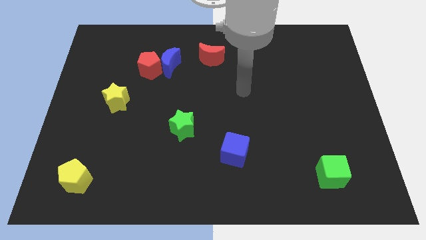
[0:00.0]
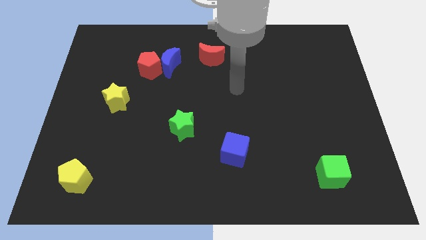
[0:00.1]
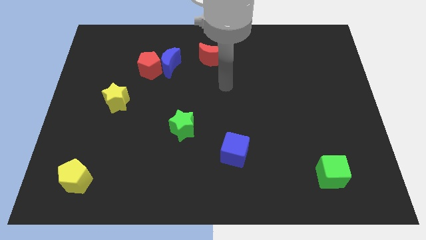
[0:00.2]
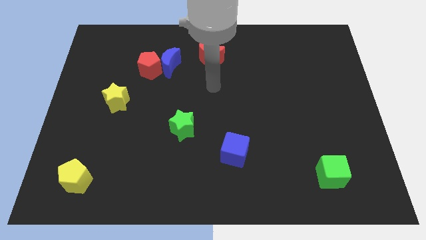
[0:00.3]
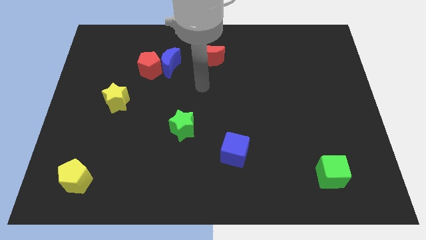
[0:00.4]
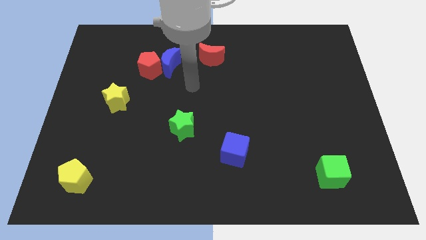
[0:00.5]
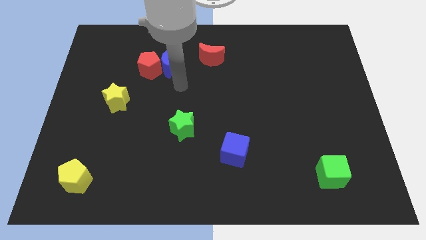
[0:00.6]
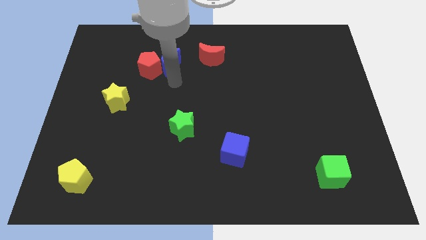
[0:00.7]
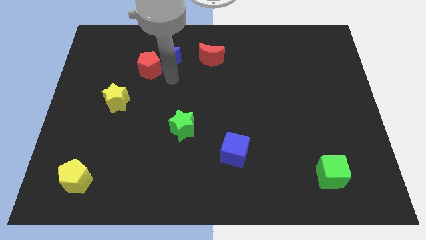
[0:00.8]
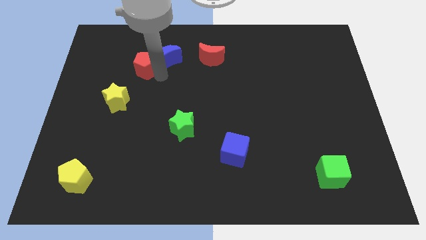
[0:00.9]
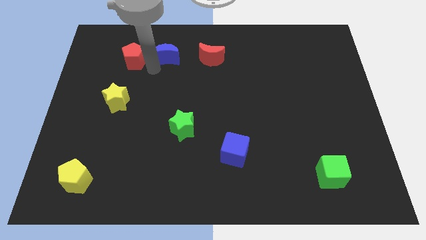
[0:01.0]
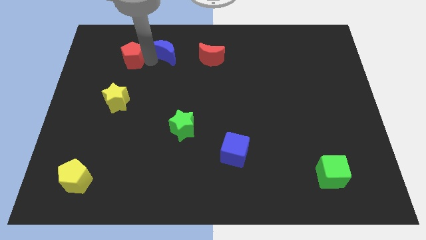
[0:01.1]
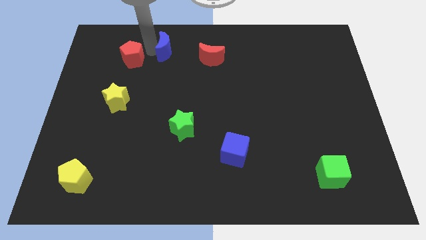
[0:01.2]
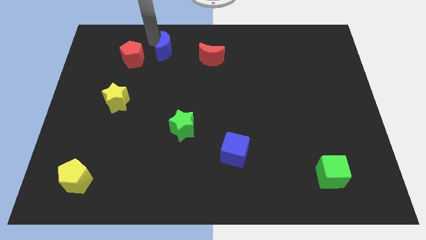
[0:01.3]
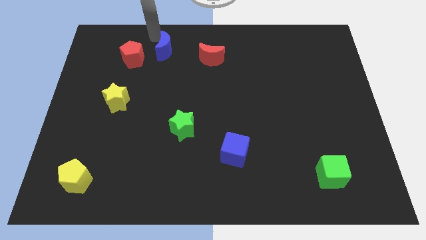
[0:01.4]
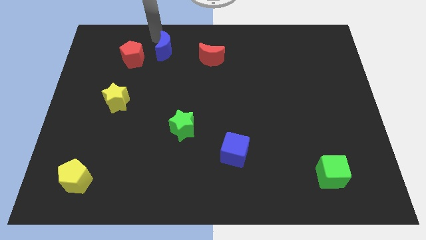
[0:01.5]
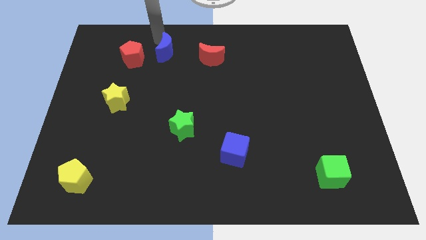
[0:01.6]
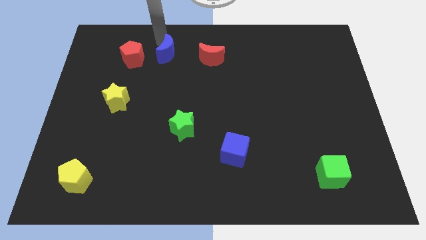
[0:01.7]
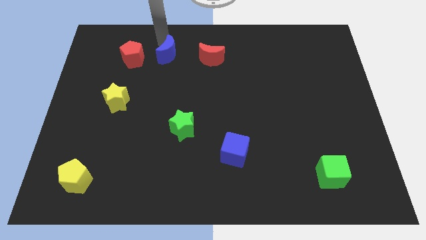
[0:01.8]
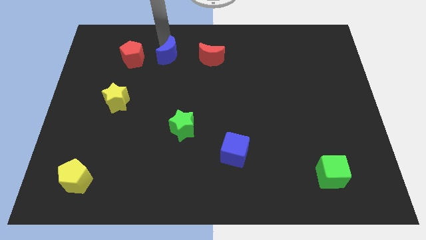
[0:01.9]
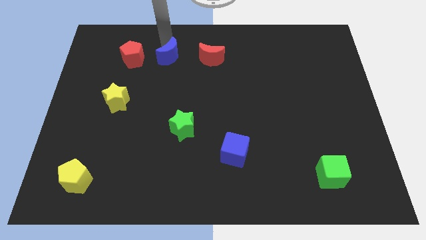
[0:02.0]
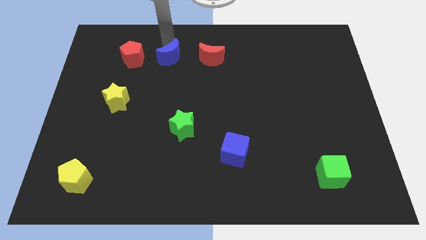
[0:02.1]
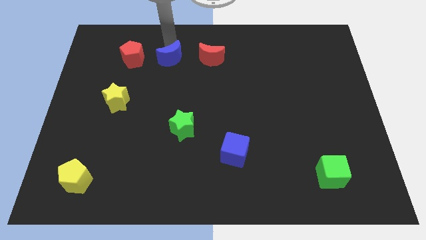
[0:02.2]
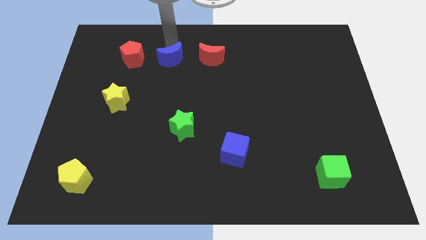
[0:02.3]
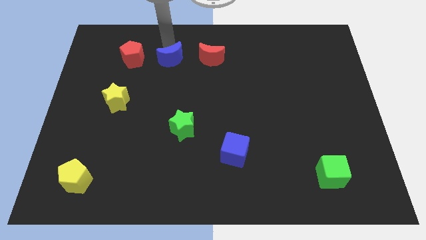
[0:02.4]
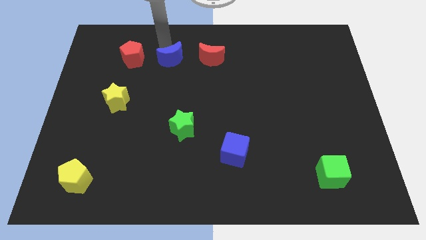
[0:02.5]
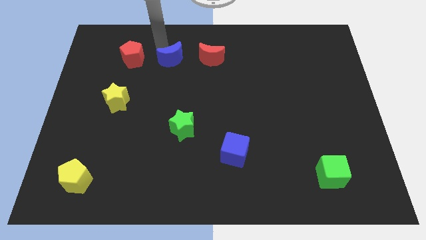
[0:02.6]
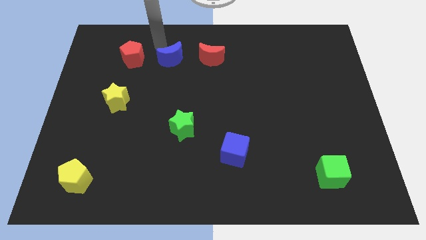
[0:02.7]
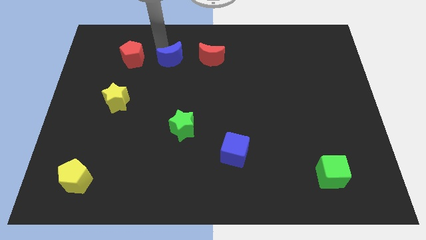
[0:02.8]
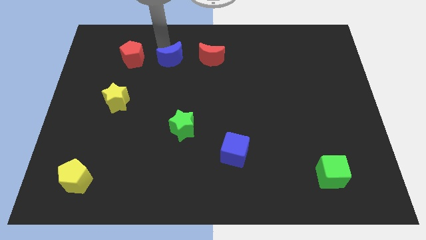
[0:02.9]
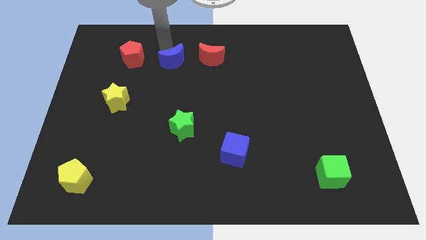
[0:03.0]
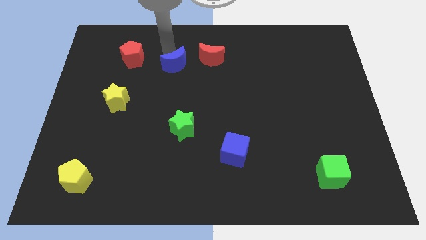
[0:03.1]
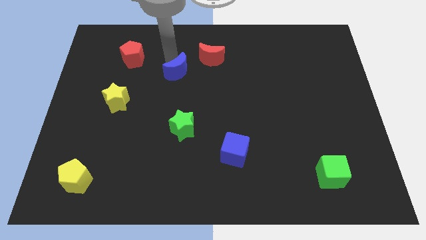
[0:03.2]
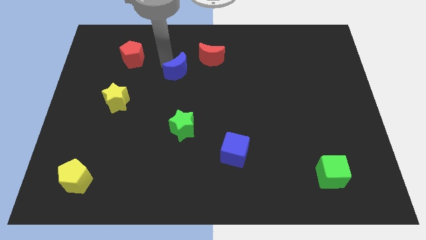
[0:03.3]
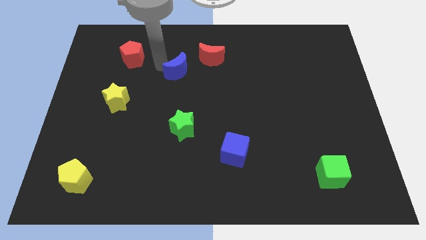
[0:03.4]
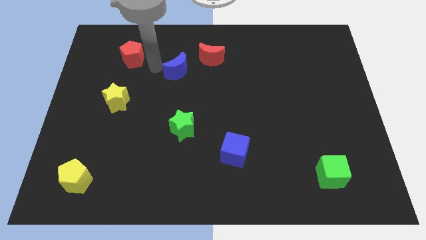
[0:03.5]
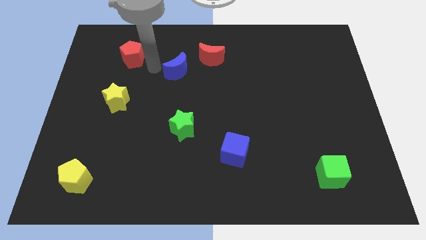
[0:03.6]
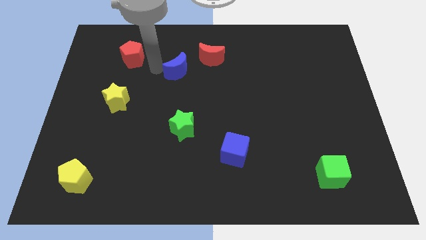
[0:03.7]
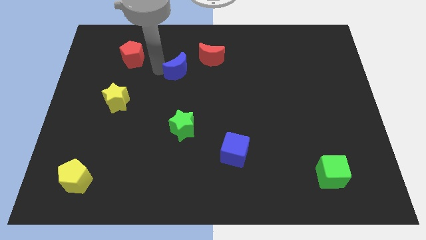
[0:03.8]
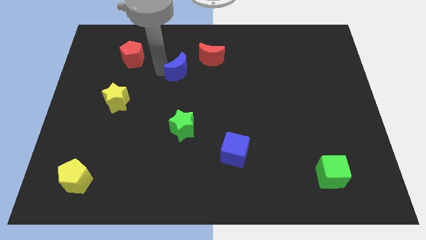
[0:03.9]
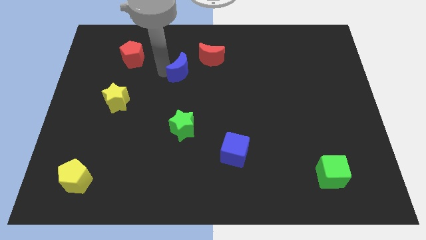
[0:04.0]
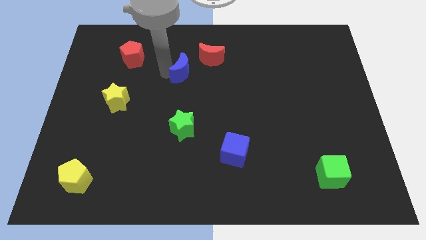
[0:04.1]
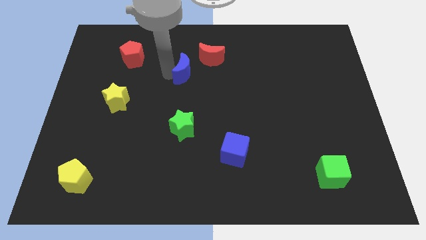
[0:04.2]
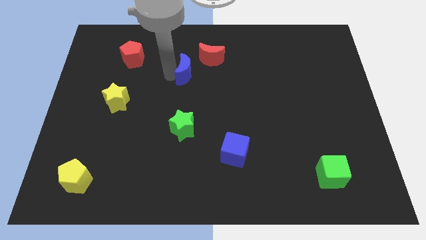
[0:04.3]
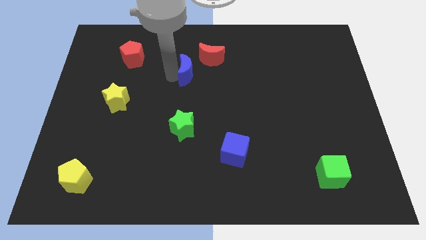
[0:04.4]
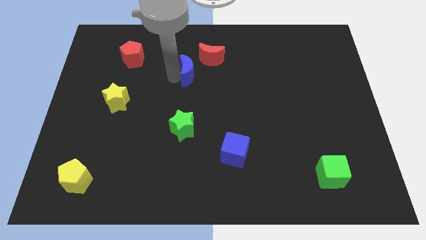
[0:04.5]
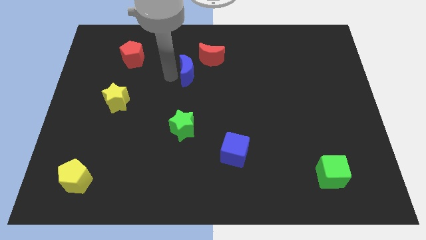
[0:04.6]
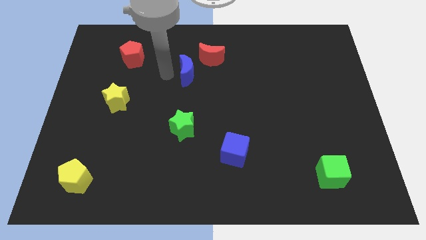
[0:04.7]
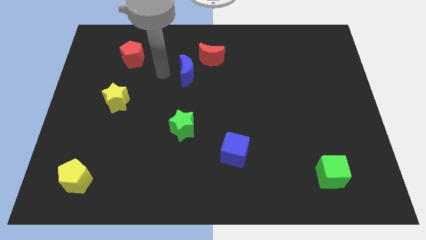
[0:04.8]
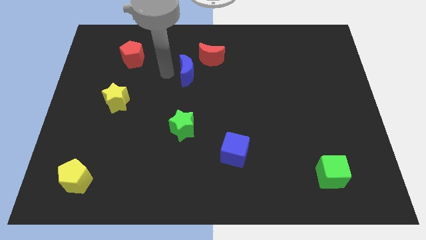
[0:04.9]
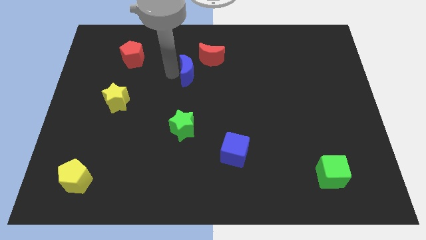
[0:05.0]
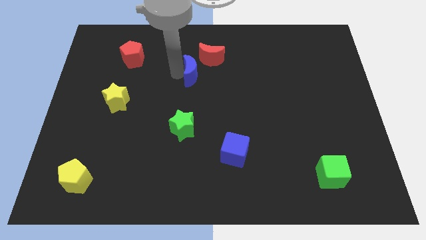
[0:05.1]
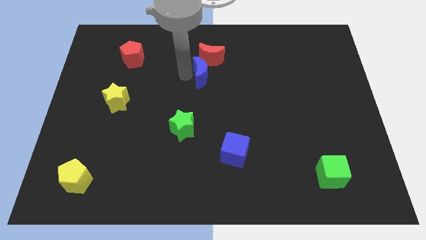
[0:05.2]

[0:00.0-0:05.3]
push the blue moon somewhat right

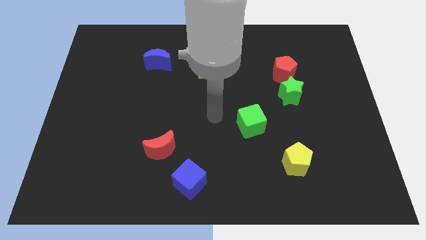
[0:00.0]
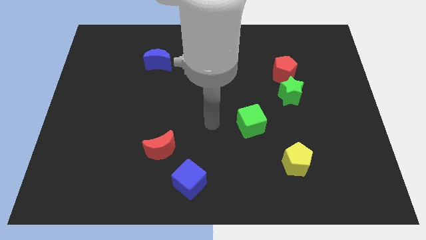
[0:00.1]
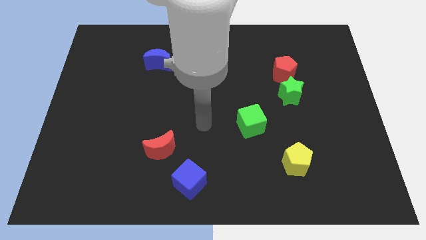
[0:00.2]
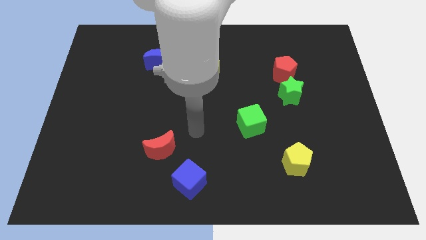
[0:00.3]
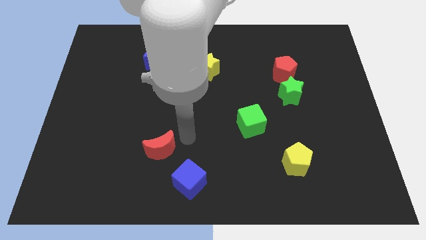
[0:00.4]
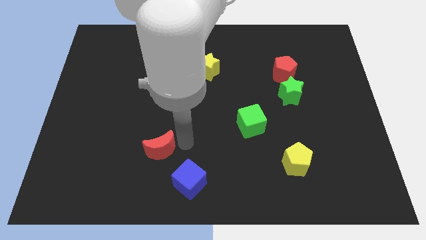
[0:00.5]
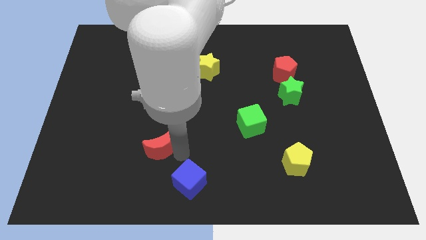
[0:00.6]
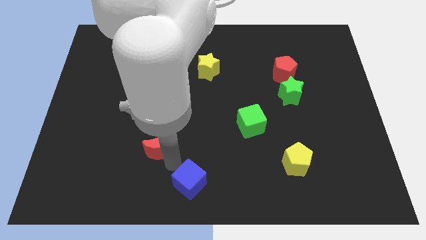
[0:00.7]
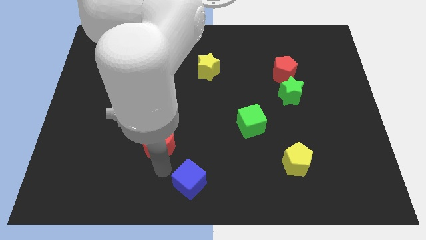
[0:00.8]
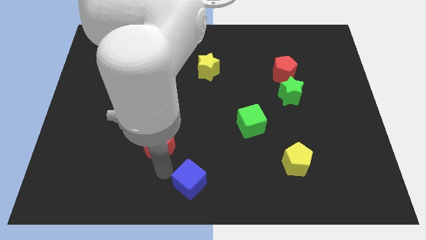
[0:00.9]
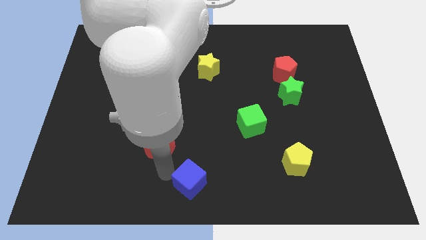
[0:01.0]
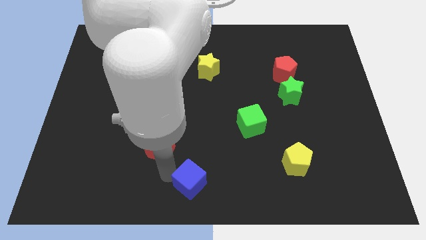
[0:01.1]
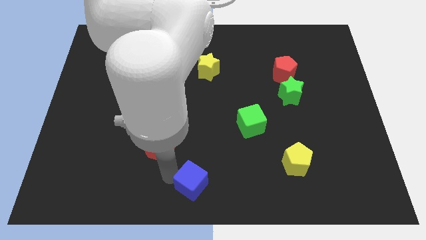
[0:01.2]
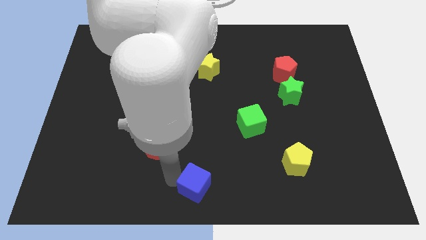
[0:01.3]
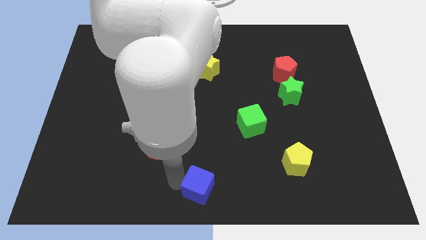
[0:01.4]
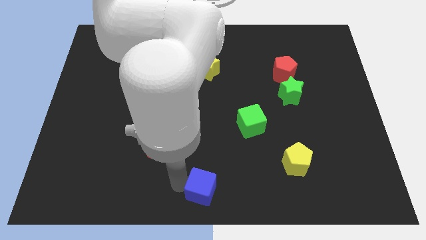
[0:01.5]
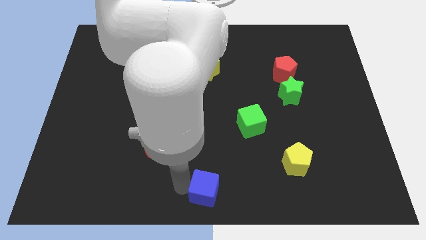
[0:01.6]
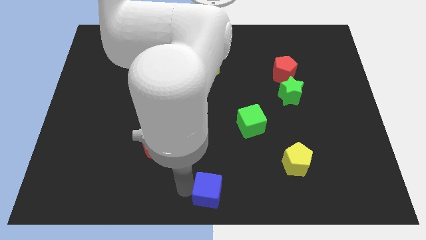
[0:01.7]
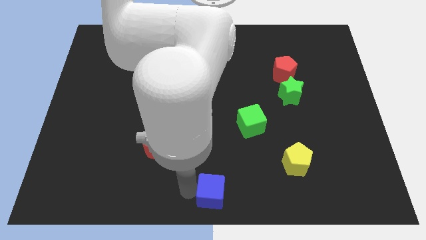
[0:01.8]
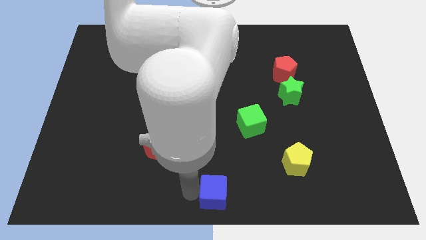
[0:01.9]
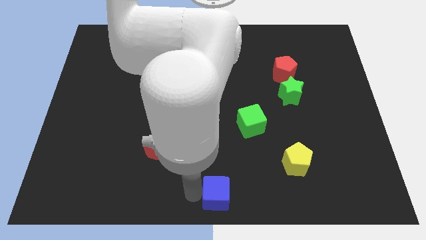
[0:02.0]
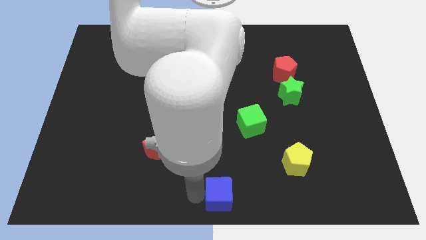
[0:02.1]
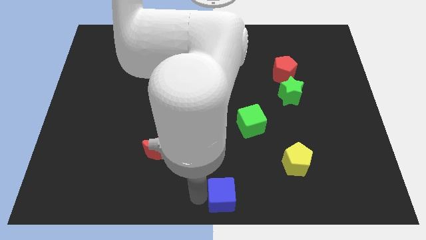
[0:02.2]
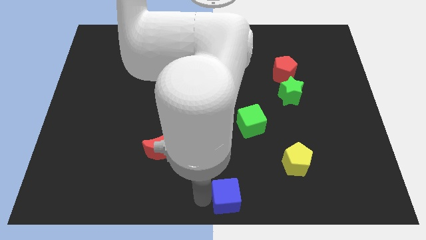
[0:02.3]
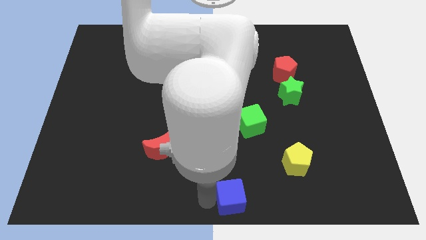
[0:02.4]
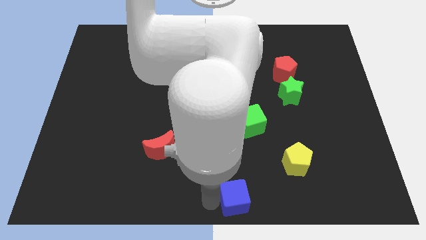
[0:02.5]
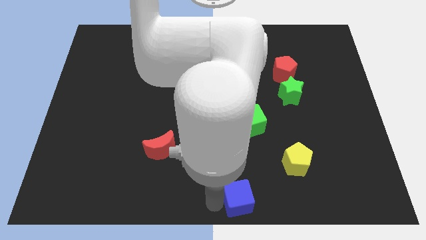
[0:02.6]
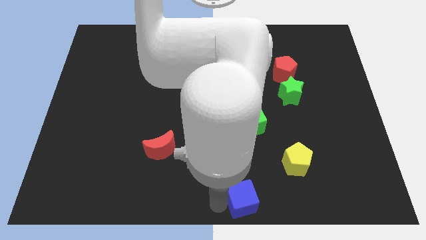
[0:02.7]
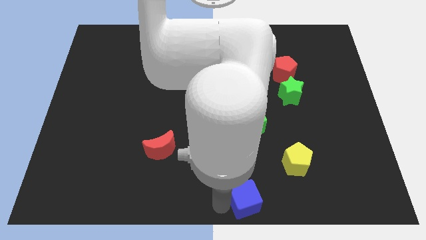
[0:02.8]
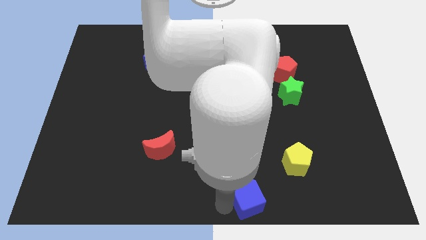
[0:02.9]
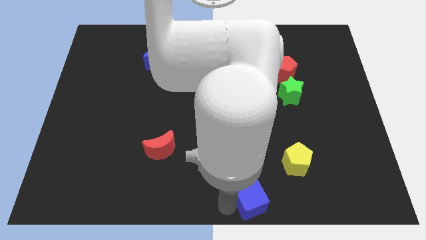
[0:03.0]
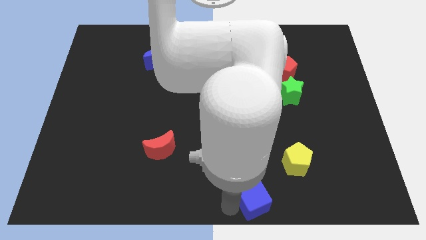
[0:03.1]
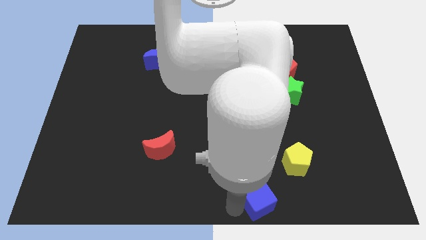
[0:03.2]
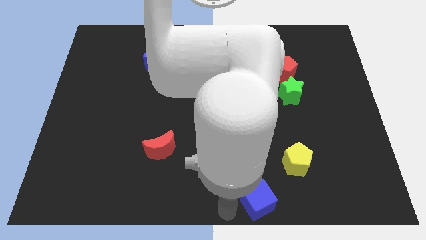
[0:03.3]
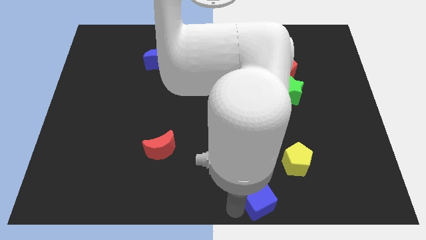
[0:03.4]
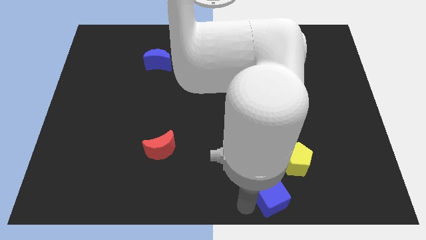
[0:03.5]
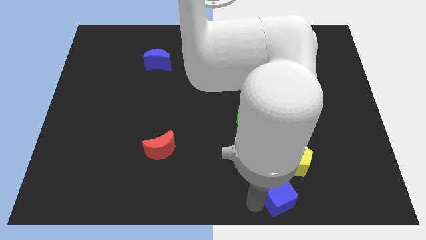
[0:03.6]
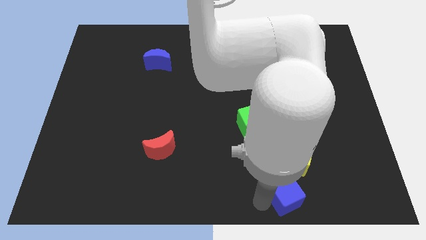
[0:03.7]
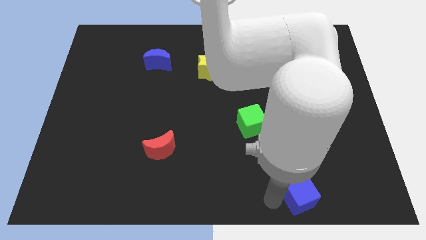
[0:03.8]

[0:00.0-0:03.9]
slide the blue cube to the right
